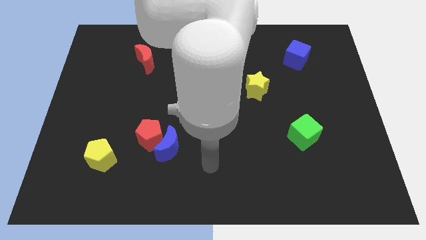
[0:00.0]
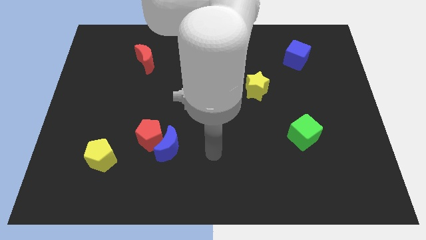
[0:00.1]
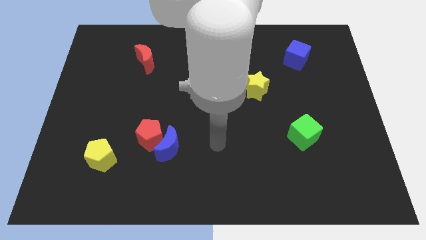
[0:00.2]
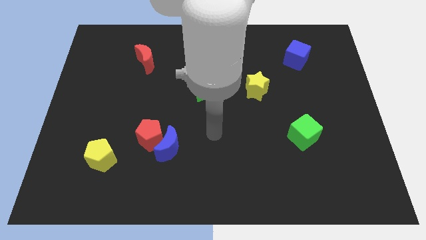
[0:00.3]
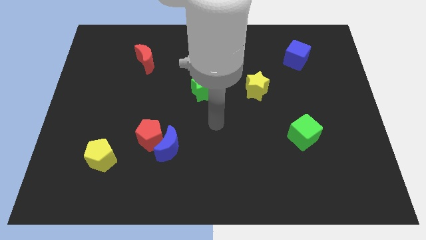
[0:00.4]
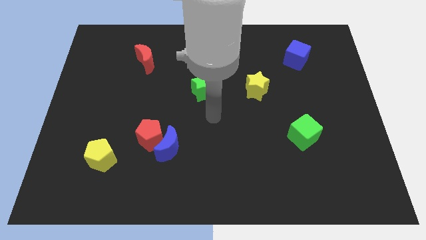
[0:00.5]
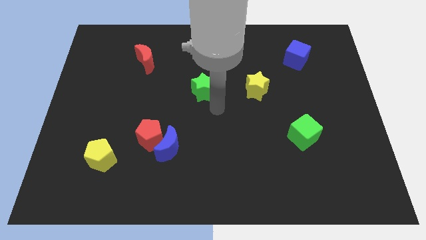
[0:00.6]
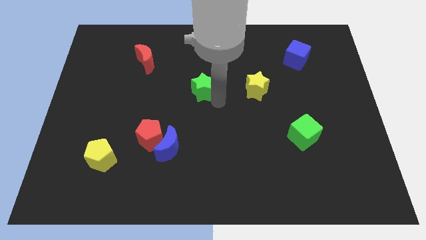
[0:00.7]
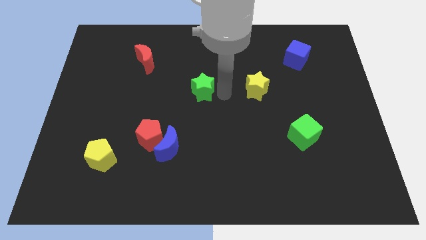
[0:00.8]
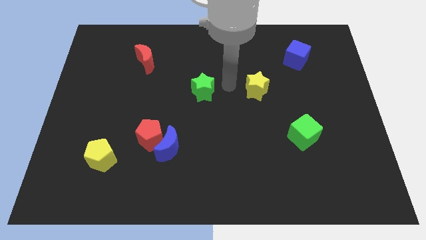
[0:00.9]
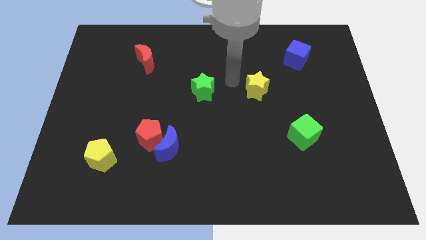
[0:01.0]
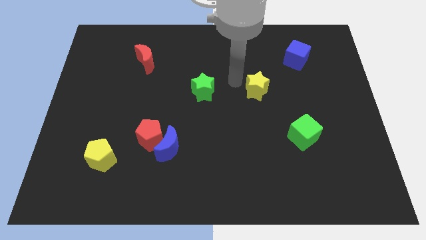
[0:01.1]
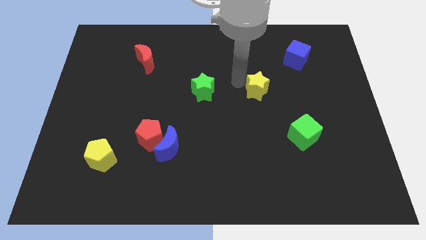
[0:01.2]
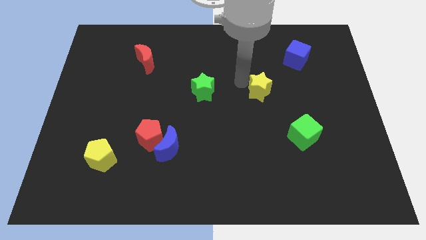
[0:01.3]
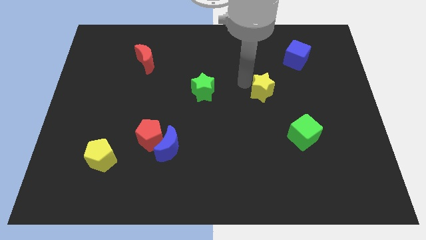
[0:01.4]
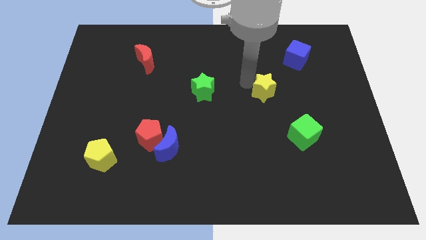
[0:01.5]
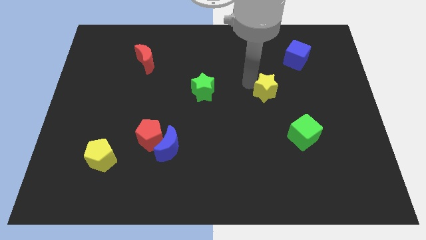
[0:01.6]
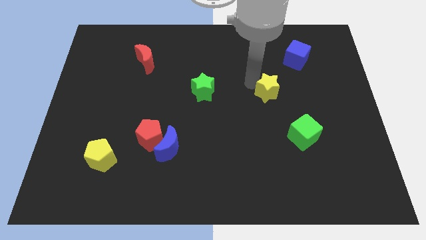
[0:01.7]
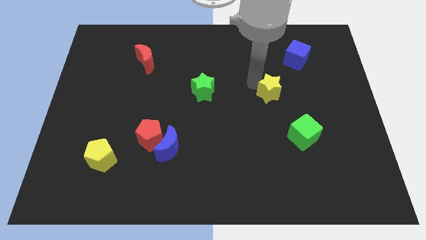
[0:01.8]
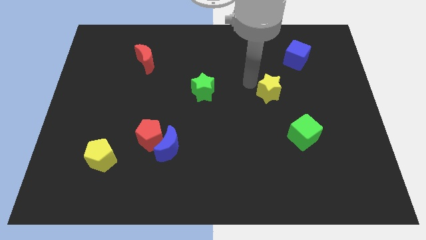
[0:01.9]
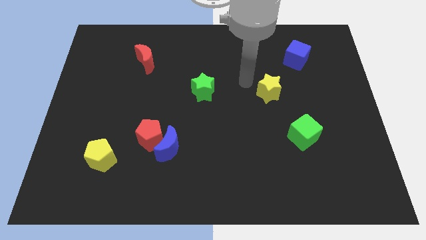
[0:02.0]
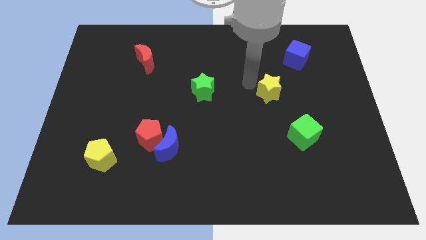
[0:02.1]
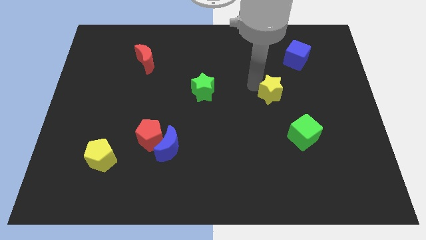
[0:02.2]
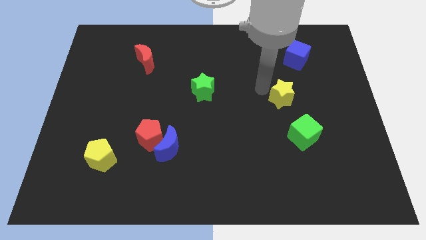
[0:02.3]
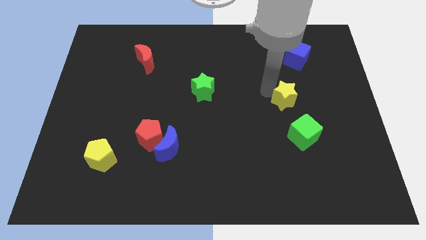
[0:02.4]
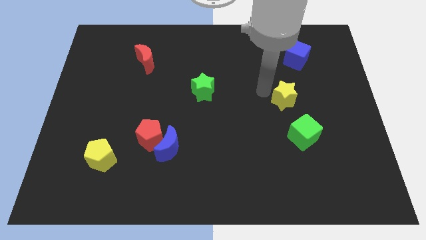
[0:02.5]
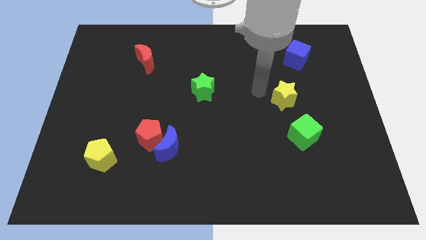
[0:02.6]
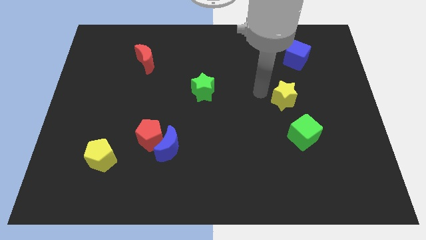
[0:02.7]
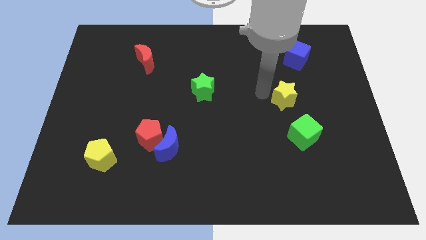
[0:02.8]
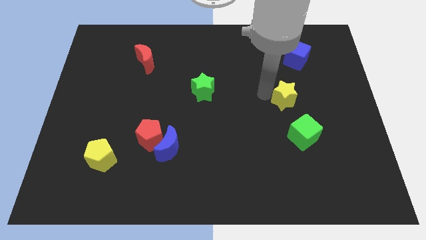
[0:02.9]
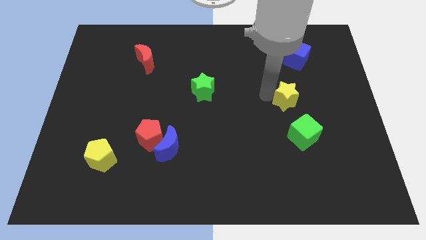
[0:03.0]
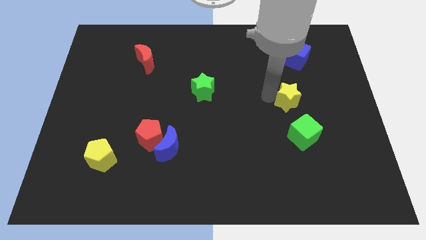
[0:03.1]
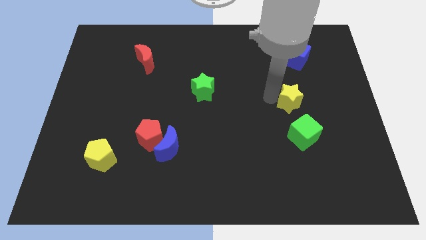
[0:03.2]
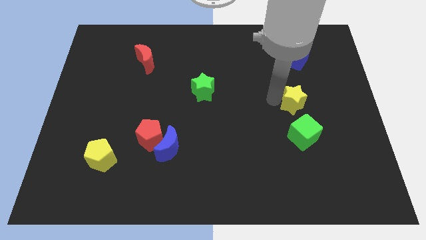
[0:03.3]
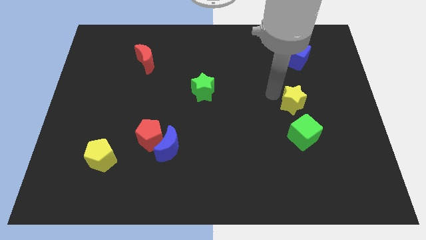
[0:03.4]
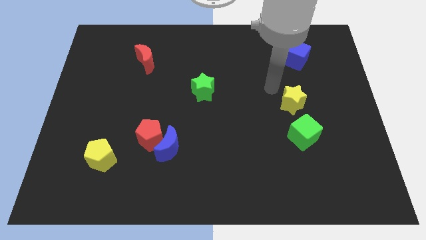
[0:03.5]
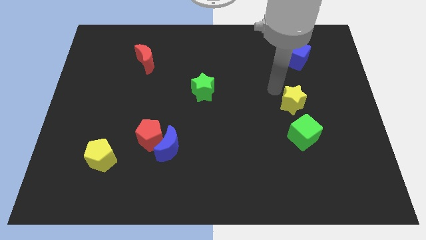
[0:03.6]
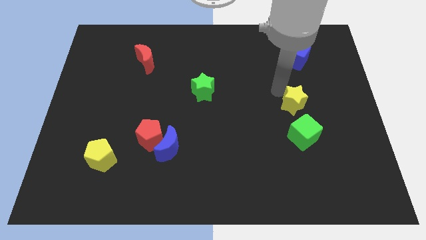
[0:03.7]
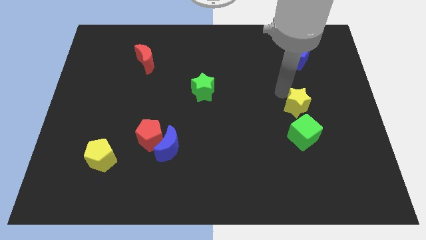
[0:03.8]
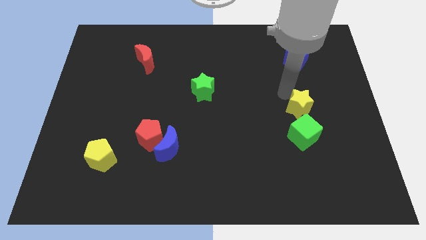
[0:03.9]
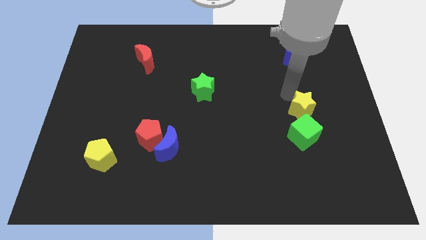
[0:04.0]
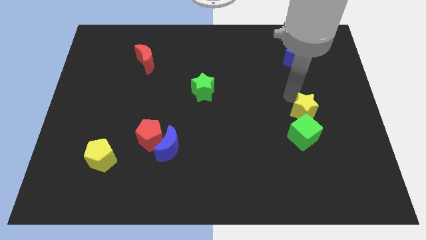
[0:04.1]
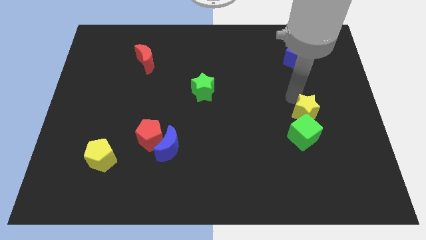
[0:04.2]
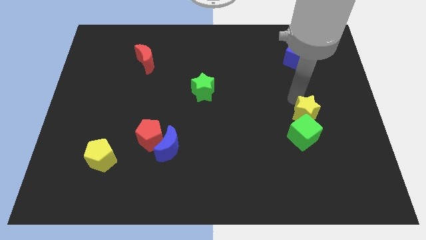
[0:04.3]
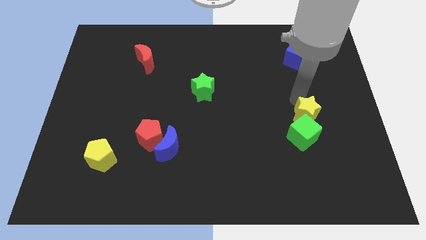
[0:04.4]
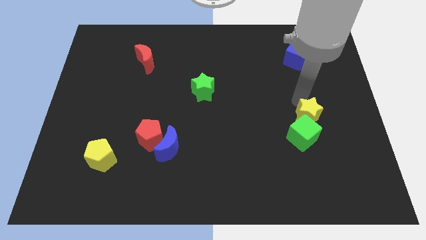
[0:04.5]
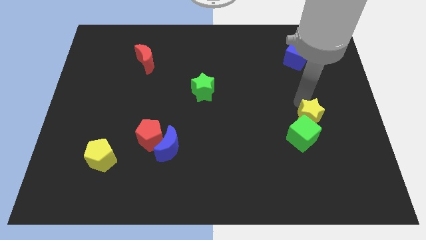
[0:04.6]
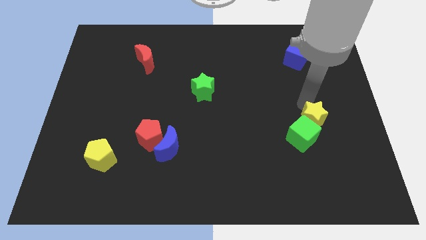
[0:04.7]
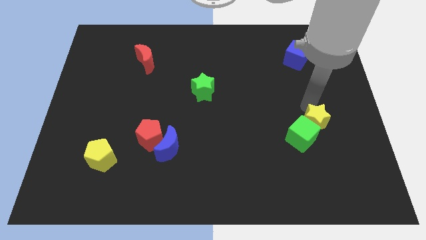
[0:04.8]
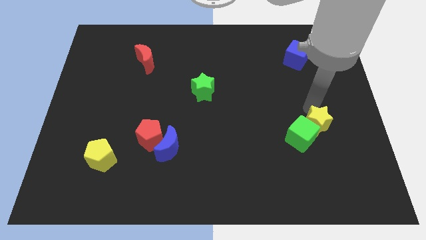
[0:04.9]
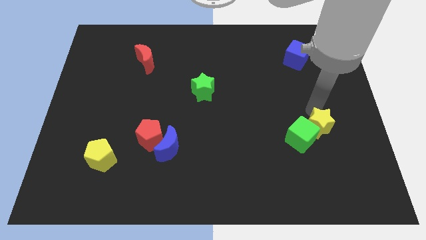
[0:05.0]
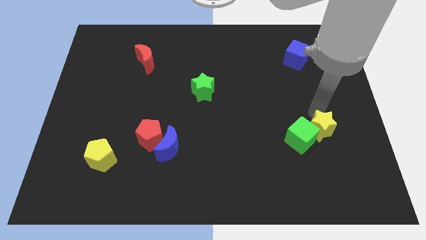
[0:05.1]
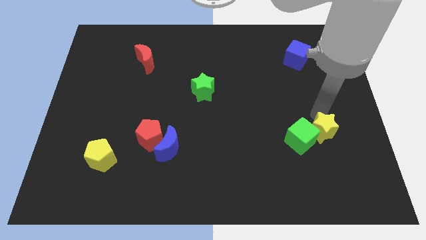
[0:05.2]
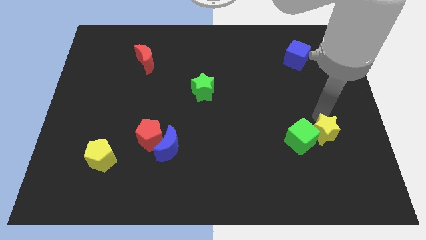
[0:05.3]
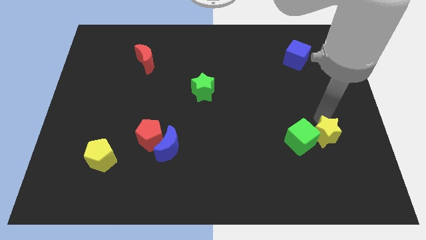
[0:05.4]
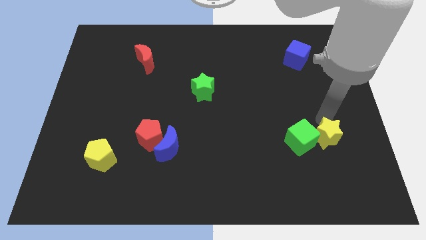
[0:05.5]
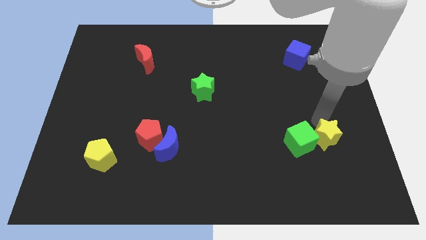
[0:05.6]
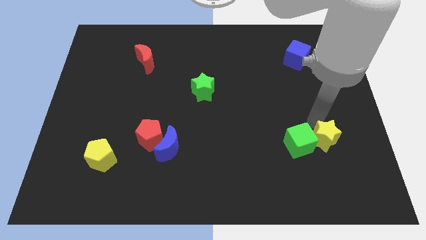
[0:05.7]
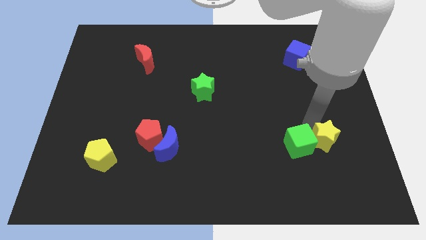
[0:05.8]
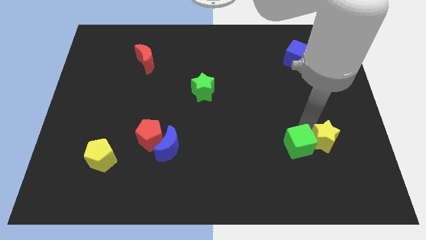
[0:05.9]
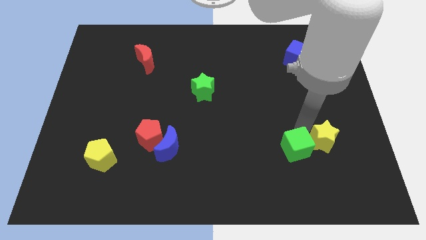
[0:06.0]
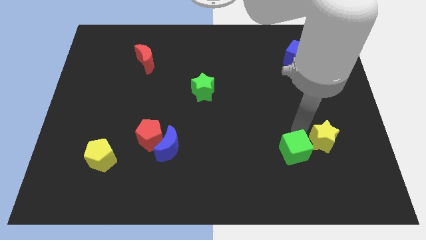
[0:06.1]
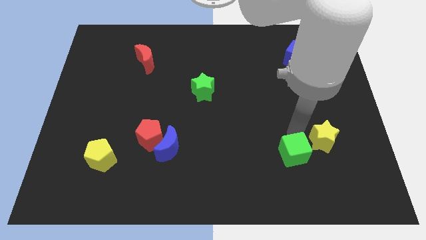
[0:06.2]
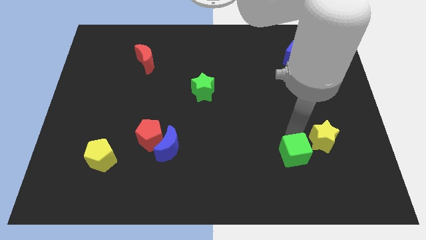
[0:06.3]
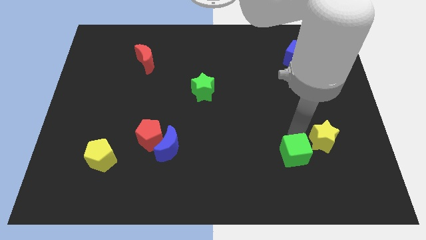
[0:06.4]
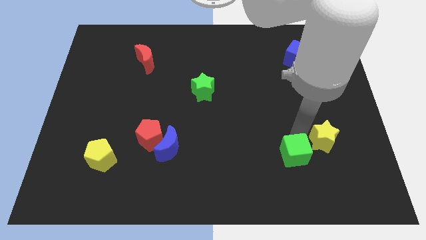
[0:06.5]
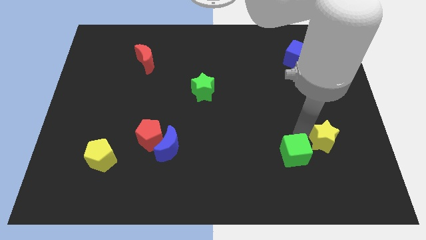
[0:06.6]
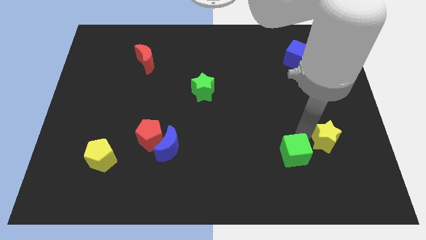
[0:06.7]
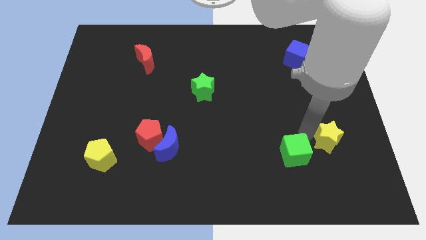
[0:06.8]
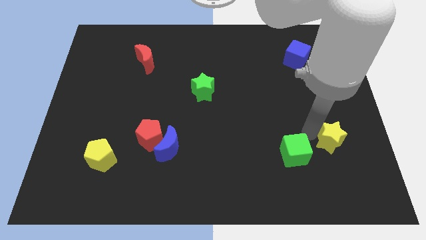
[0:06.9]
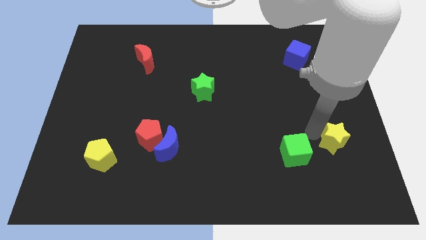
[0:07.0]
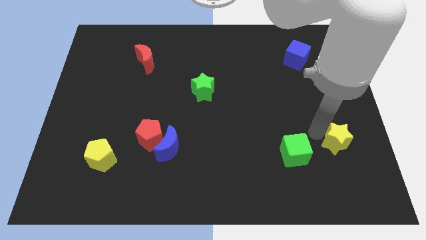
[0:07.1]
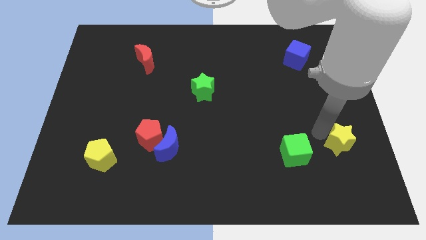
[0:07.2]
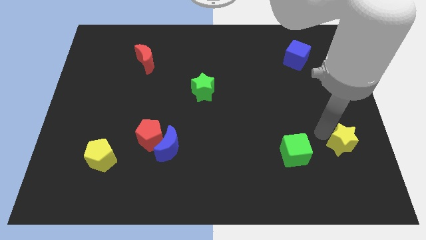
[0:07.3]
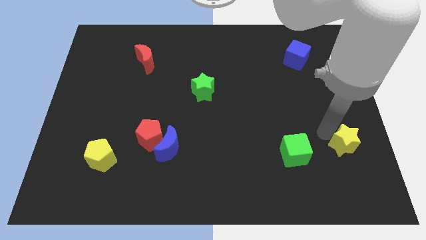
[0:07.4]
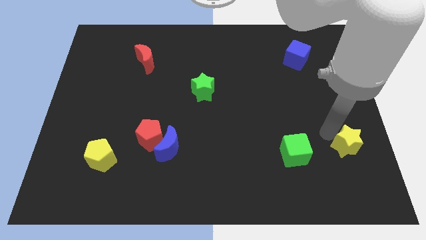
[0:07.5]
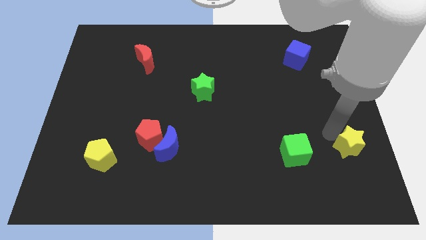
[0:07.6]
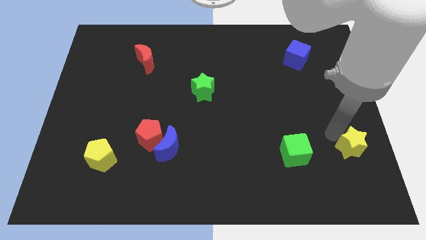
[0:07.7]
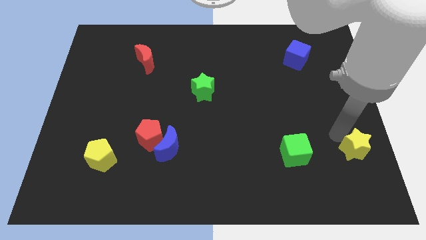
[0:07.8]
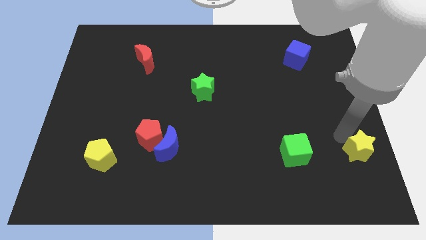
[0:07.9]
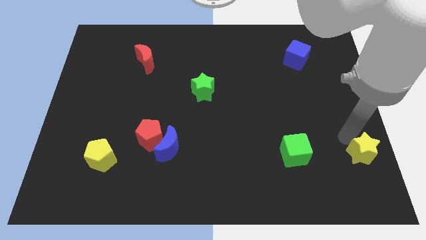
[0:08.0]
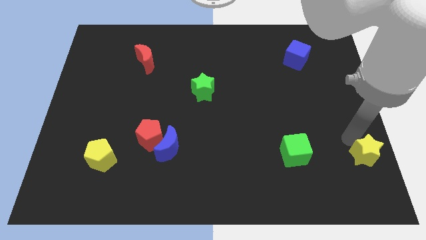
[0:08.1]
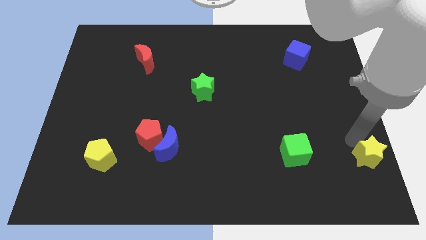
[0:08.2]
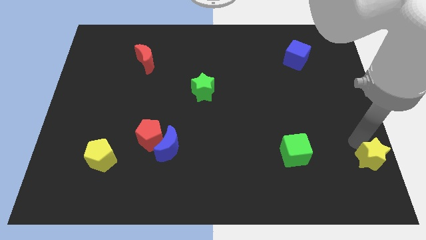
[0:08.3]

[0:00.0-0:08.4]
push the yellow star to the bottom right of the board
